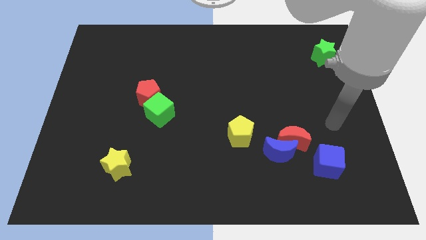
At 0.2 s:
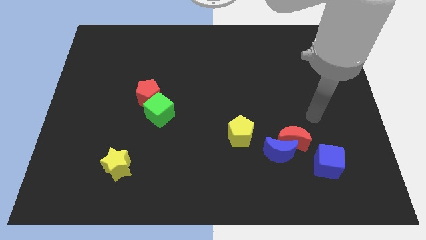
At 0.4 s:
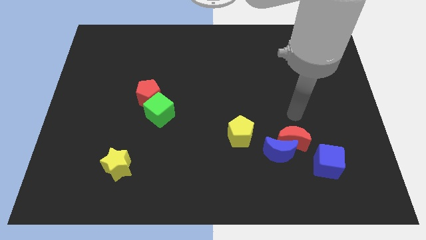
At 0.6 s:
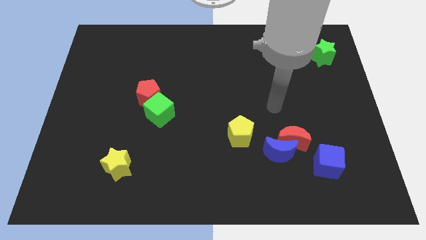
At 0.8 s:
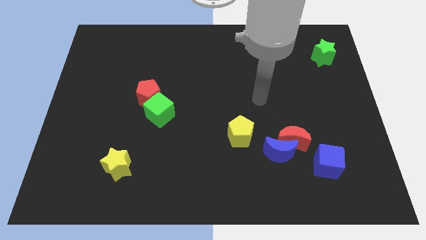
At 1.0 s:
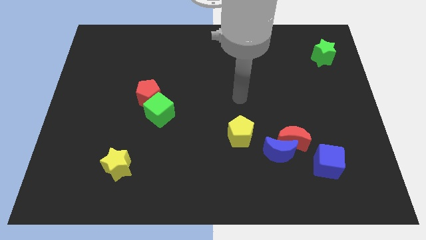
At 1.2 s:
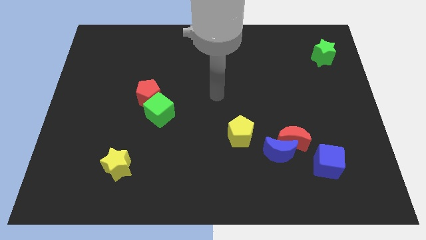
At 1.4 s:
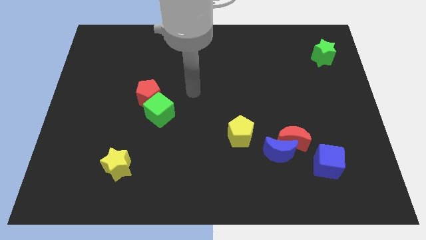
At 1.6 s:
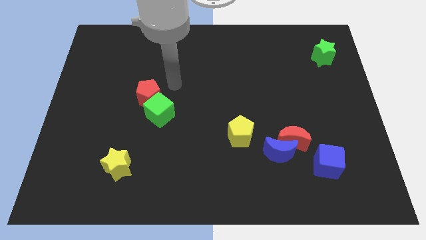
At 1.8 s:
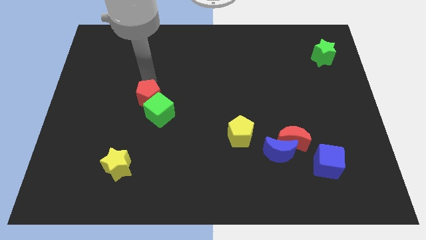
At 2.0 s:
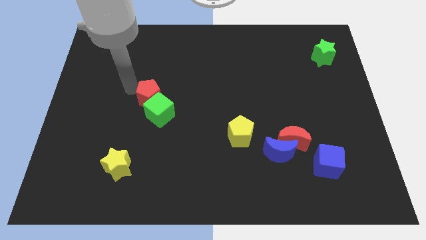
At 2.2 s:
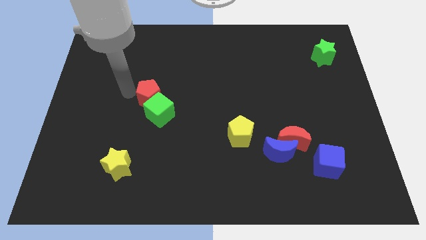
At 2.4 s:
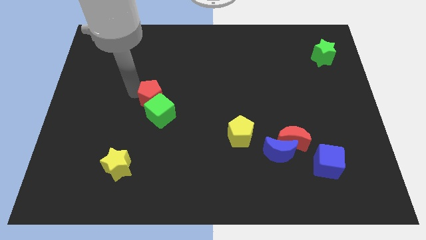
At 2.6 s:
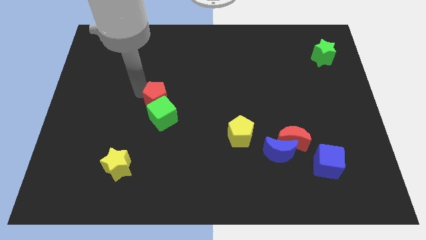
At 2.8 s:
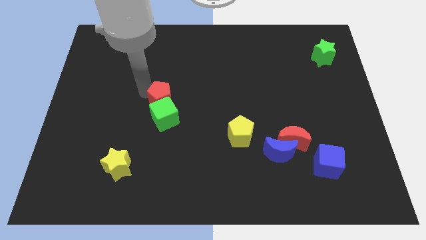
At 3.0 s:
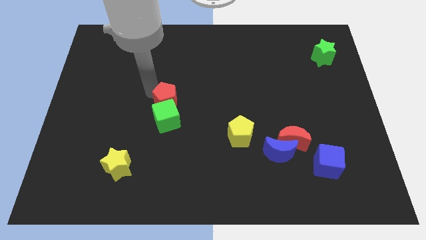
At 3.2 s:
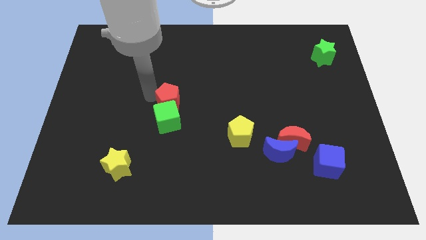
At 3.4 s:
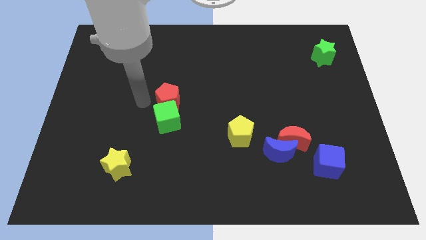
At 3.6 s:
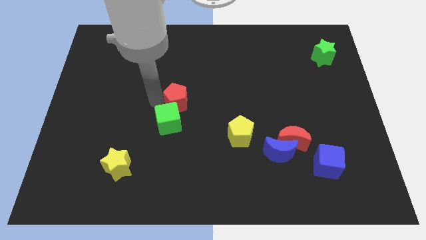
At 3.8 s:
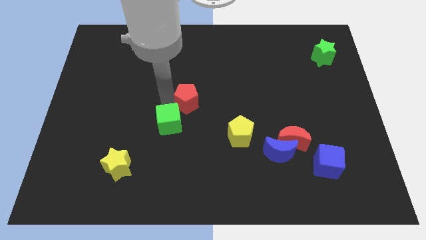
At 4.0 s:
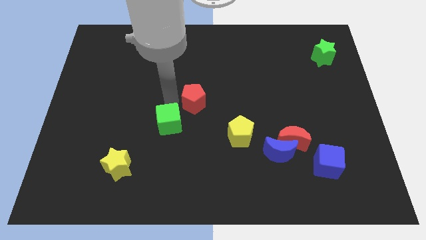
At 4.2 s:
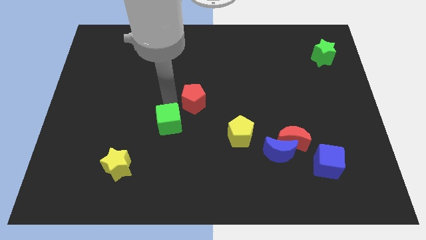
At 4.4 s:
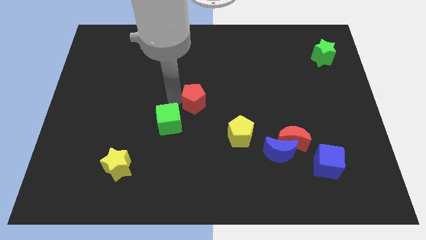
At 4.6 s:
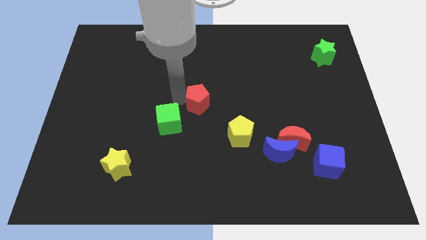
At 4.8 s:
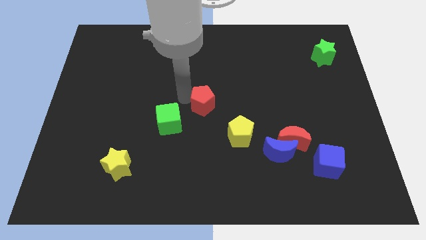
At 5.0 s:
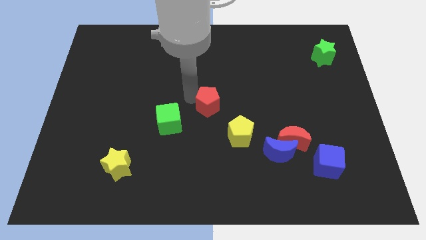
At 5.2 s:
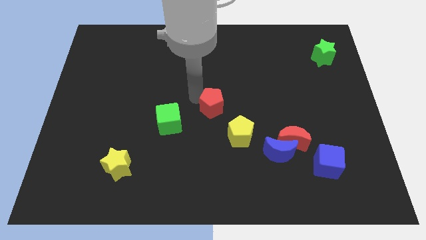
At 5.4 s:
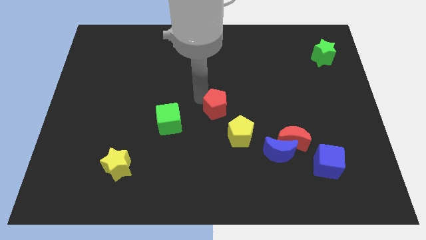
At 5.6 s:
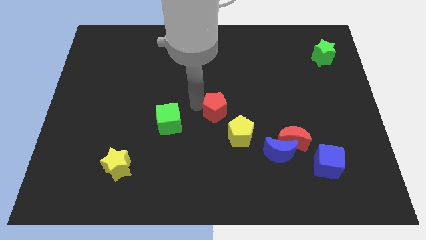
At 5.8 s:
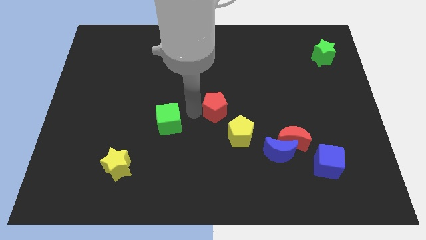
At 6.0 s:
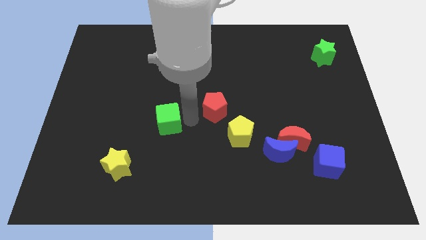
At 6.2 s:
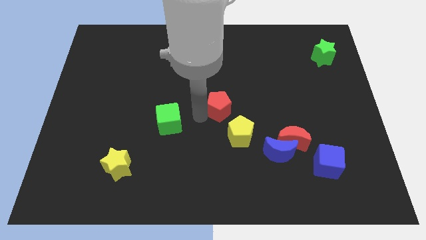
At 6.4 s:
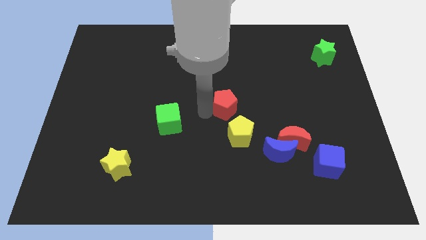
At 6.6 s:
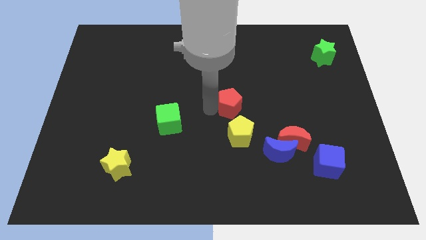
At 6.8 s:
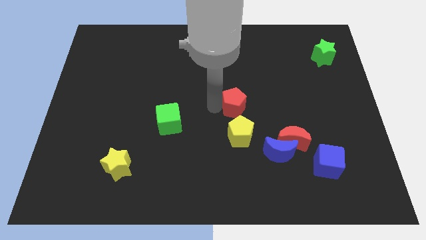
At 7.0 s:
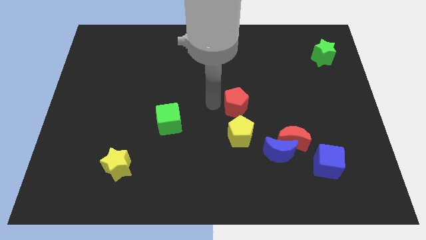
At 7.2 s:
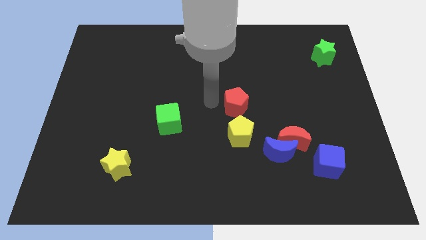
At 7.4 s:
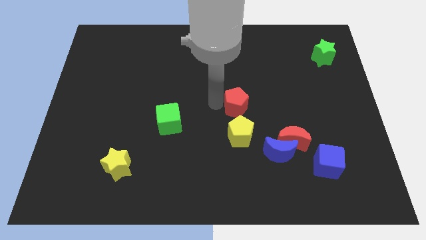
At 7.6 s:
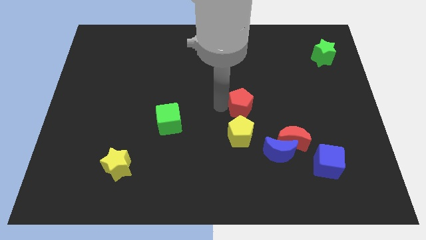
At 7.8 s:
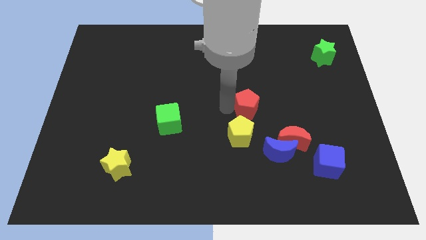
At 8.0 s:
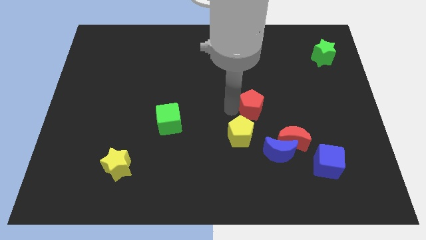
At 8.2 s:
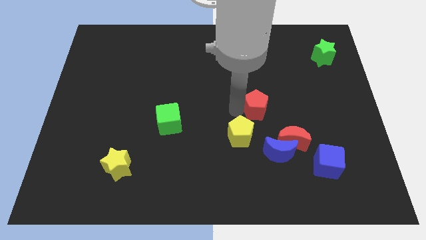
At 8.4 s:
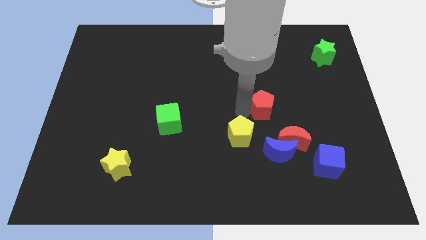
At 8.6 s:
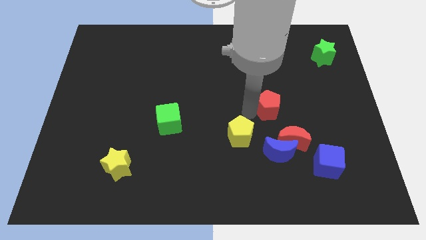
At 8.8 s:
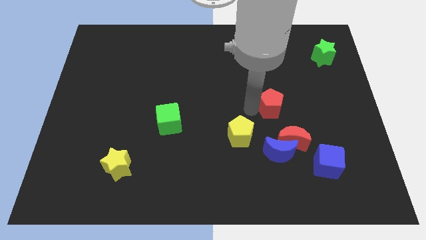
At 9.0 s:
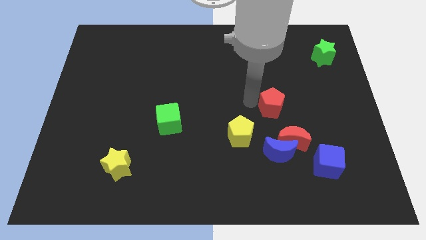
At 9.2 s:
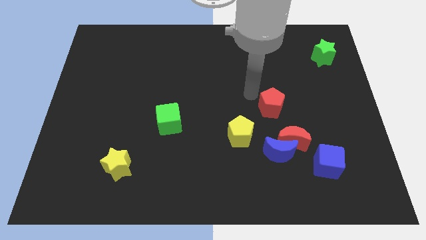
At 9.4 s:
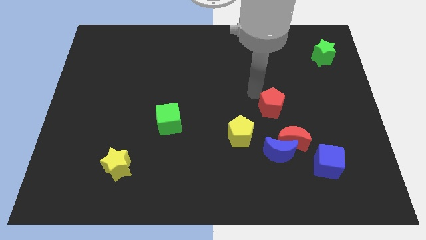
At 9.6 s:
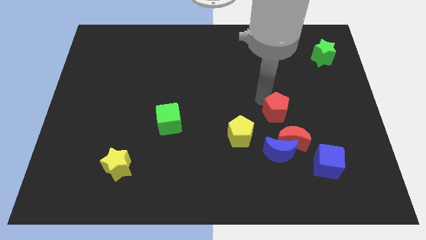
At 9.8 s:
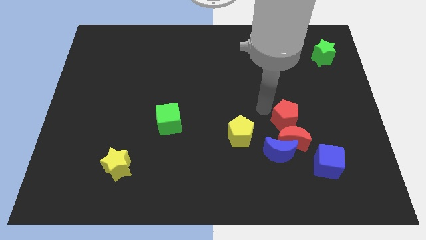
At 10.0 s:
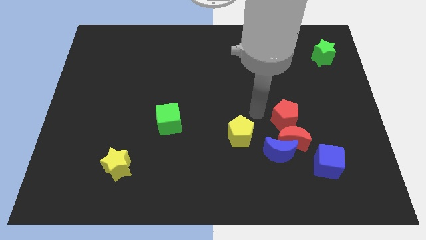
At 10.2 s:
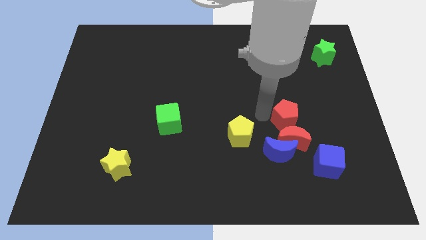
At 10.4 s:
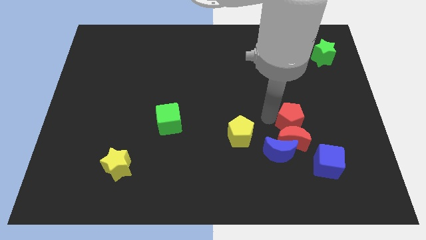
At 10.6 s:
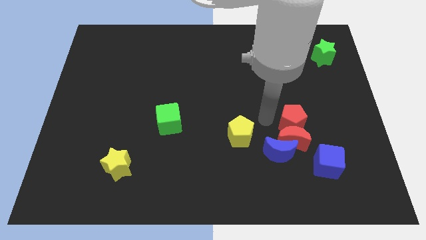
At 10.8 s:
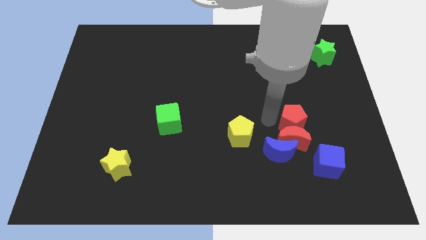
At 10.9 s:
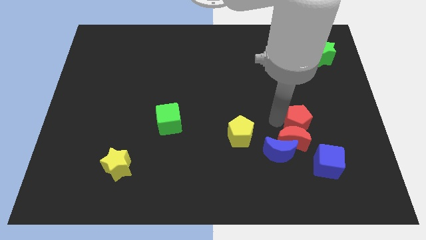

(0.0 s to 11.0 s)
push the red pentagon to the top side of the blue cube

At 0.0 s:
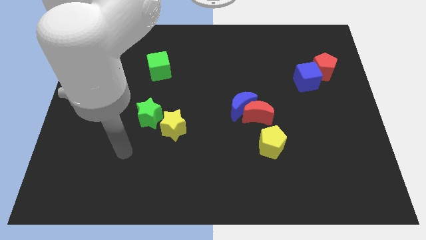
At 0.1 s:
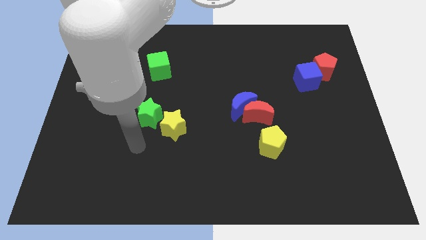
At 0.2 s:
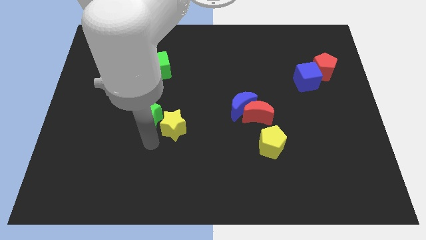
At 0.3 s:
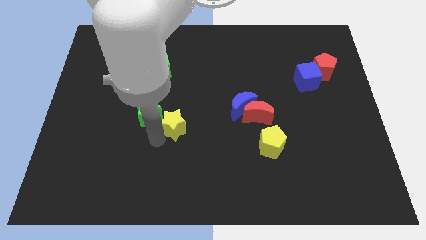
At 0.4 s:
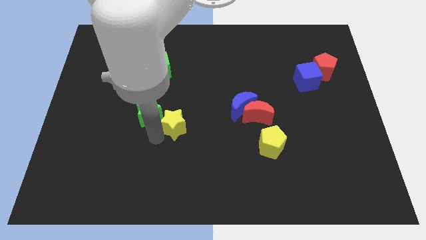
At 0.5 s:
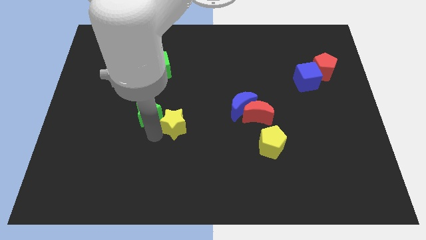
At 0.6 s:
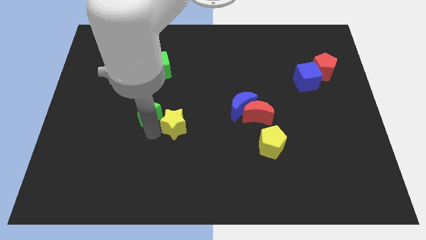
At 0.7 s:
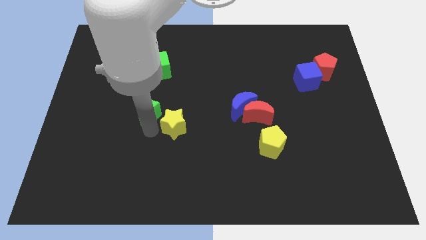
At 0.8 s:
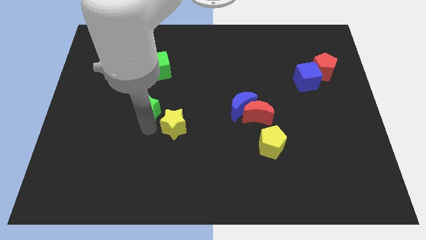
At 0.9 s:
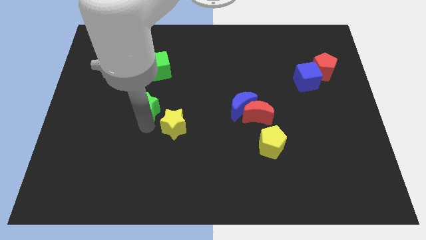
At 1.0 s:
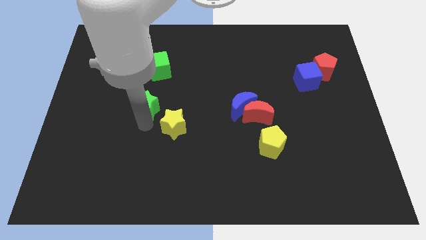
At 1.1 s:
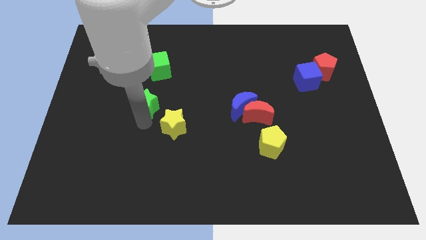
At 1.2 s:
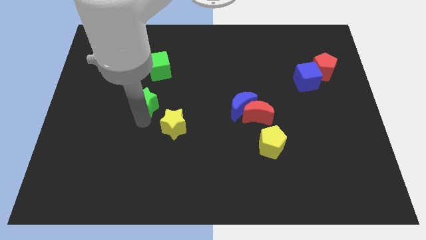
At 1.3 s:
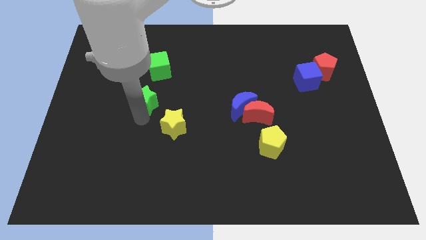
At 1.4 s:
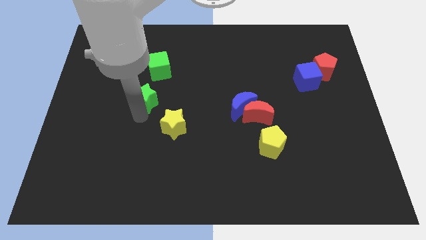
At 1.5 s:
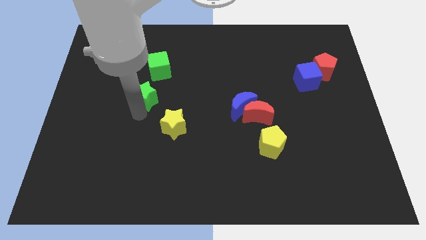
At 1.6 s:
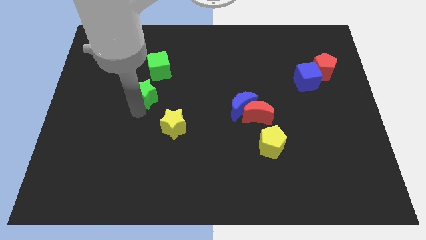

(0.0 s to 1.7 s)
put the green star diagonally down and to the left of the green cube
